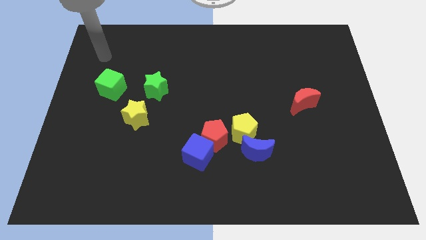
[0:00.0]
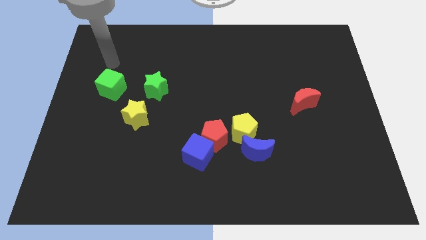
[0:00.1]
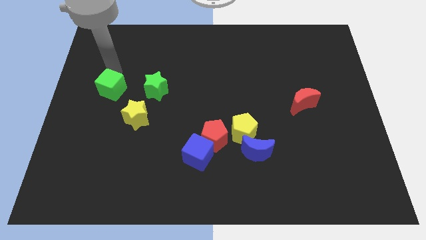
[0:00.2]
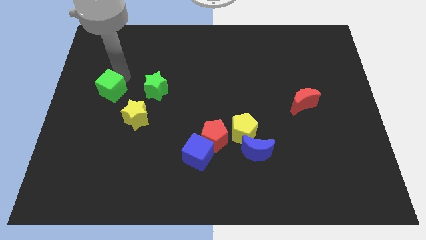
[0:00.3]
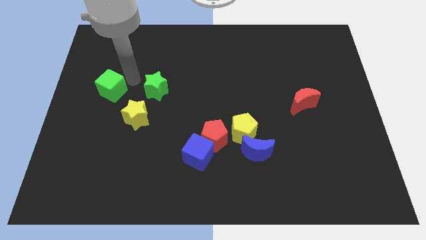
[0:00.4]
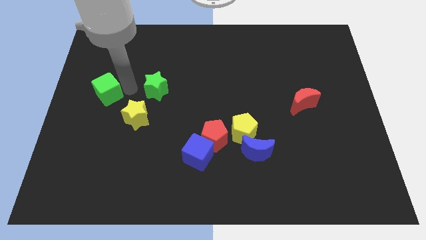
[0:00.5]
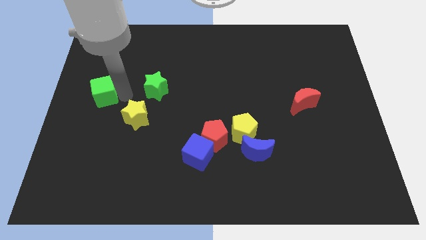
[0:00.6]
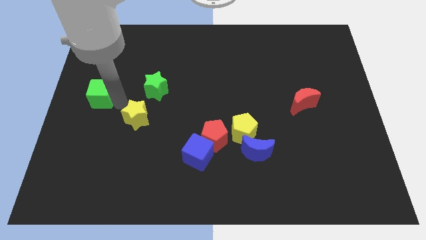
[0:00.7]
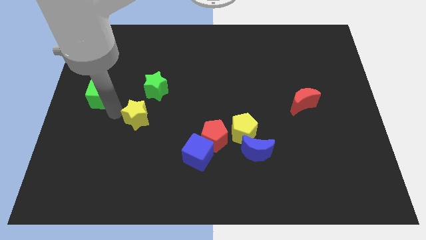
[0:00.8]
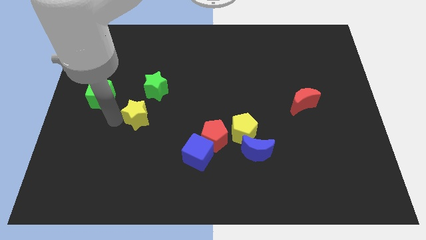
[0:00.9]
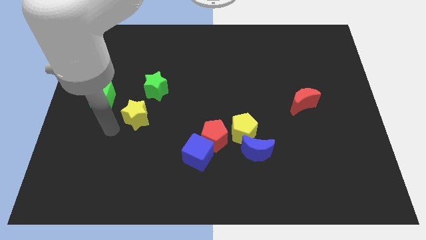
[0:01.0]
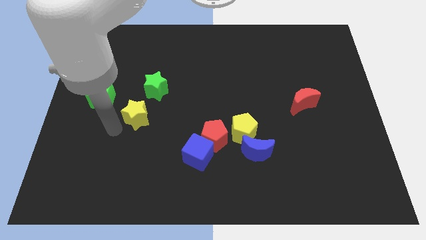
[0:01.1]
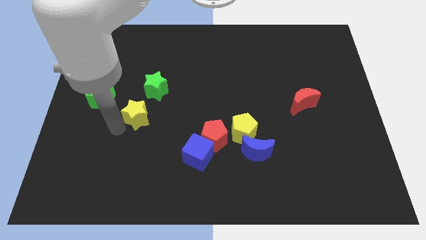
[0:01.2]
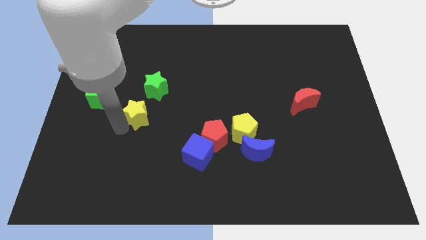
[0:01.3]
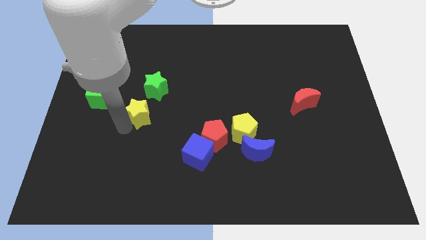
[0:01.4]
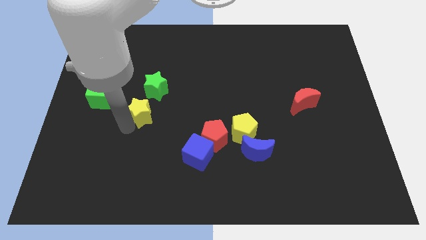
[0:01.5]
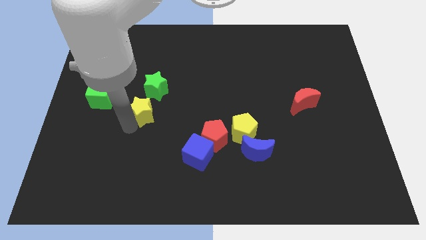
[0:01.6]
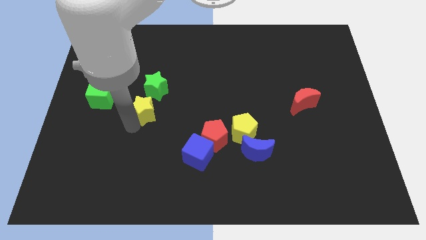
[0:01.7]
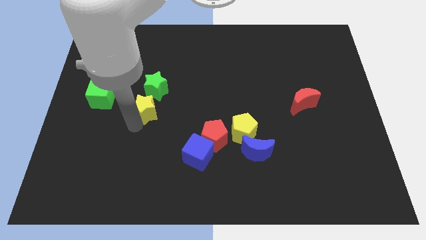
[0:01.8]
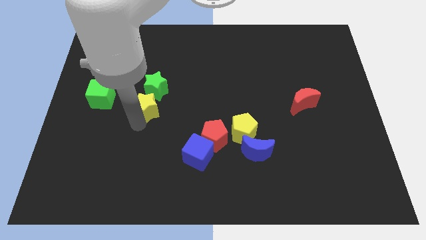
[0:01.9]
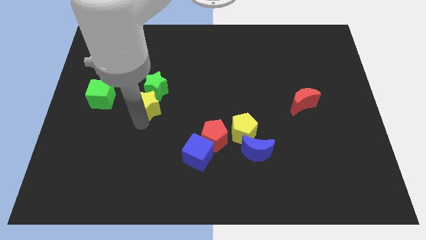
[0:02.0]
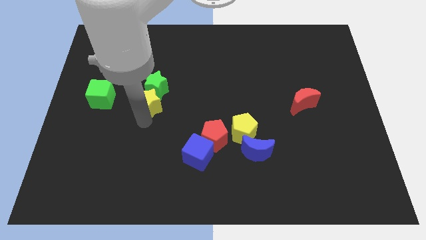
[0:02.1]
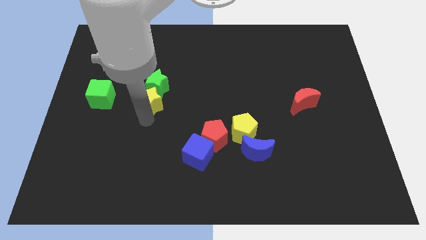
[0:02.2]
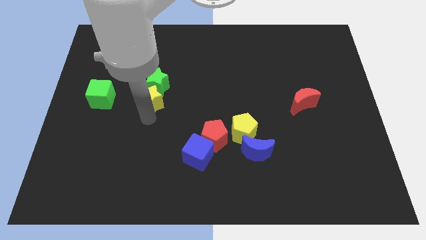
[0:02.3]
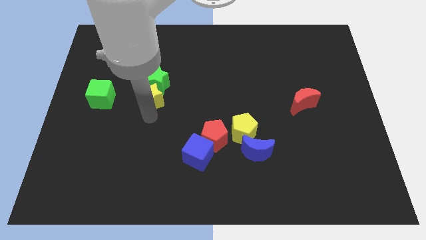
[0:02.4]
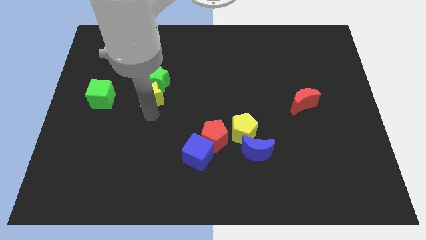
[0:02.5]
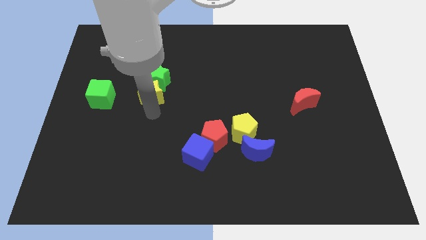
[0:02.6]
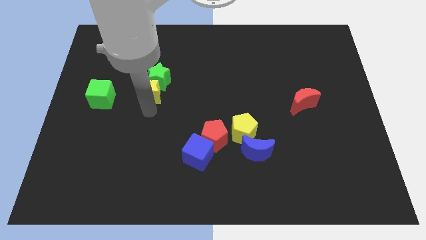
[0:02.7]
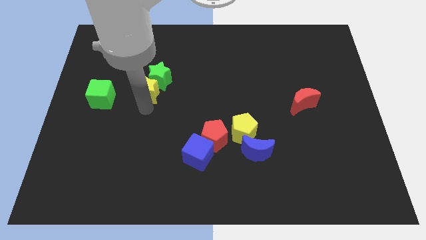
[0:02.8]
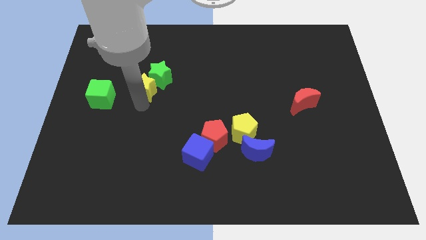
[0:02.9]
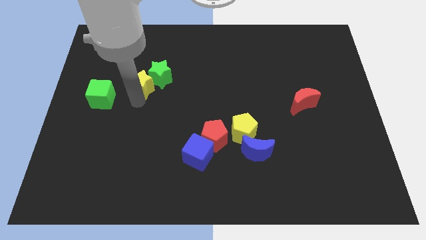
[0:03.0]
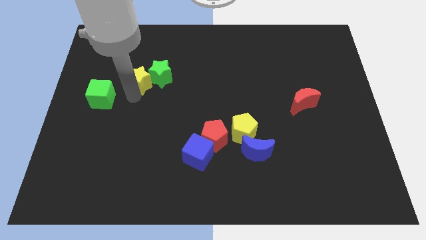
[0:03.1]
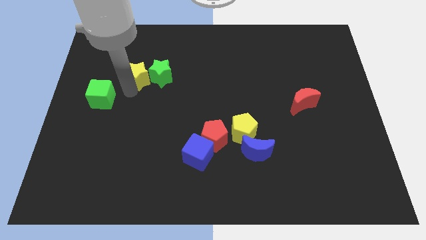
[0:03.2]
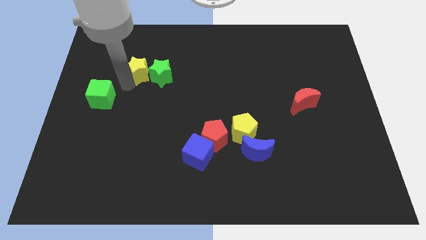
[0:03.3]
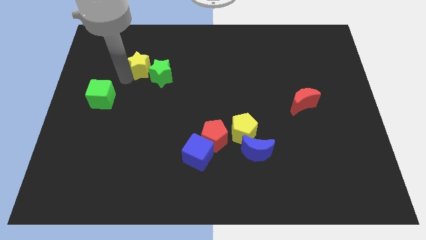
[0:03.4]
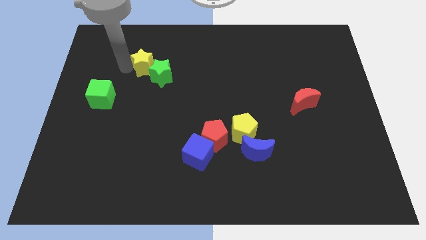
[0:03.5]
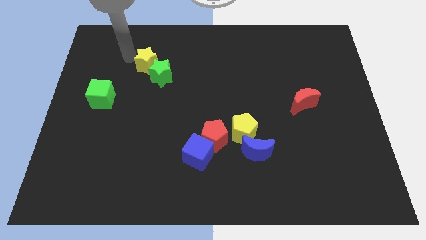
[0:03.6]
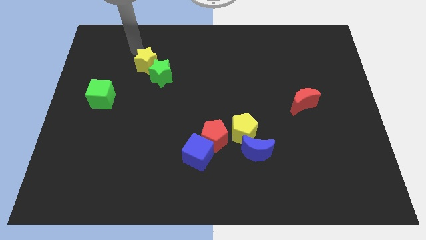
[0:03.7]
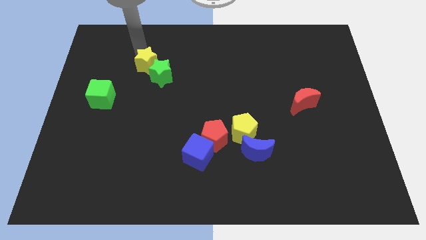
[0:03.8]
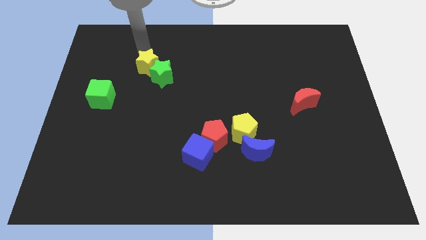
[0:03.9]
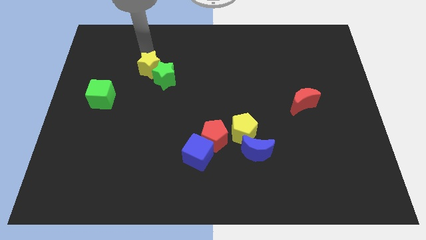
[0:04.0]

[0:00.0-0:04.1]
slightly push the yellow star up and right

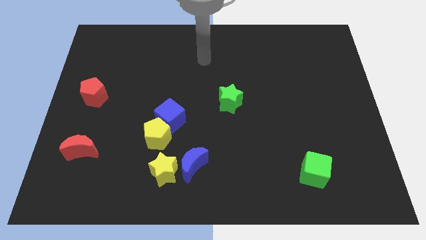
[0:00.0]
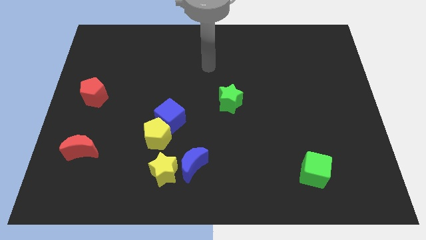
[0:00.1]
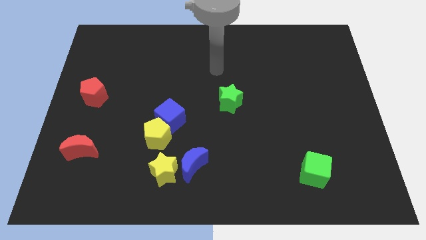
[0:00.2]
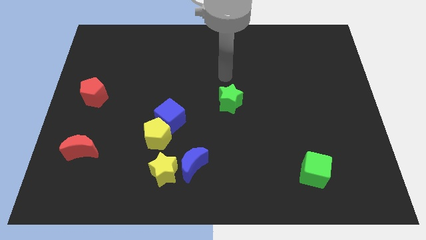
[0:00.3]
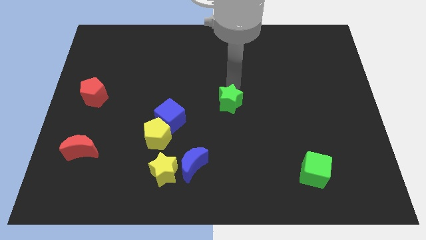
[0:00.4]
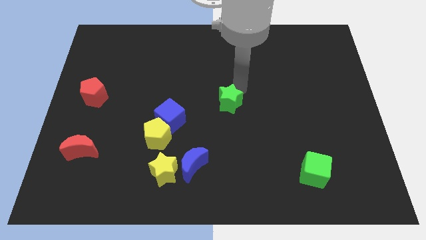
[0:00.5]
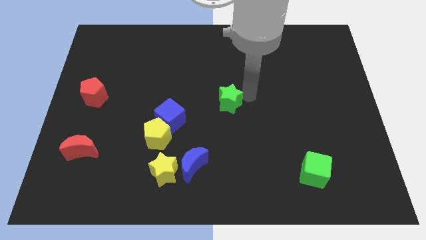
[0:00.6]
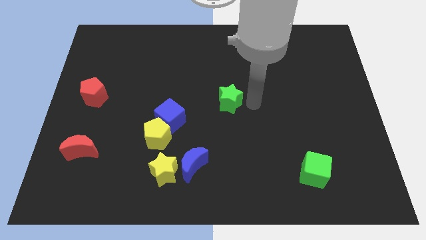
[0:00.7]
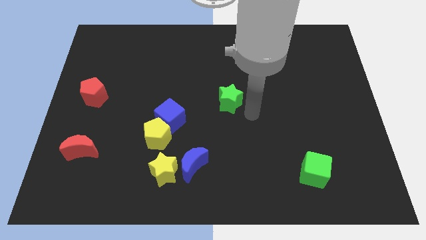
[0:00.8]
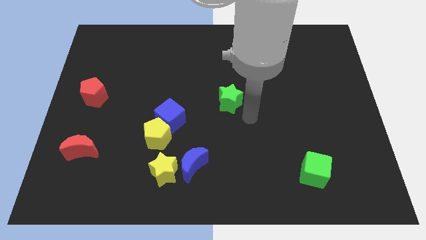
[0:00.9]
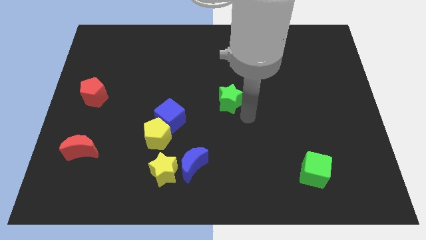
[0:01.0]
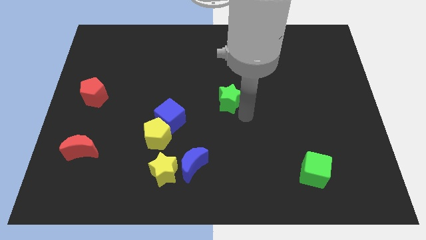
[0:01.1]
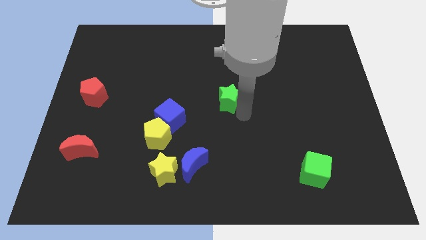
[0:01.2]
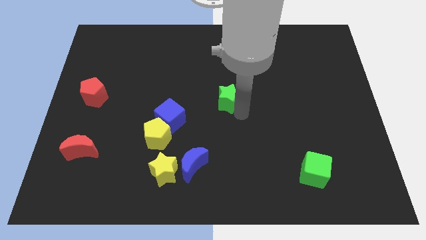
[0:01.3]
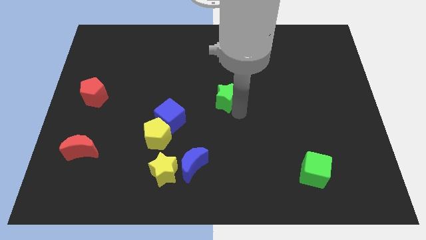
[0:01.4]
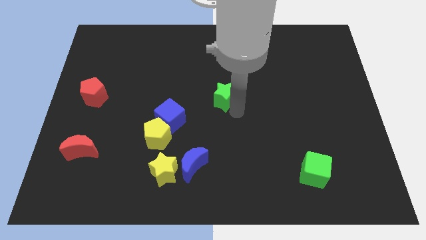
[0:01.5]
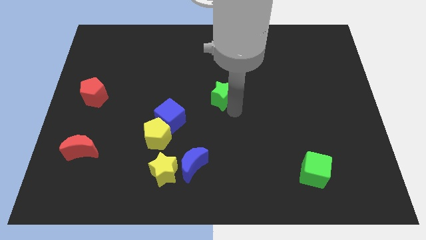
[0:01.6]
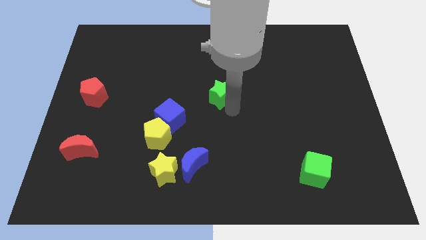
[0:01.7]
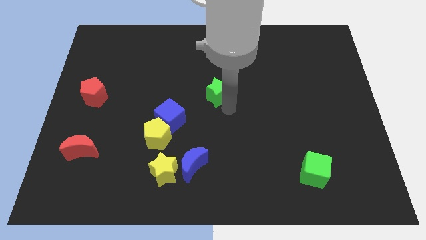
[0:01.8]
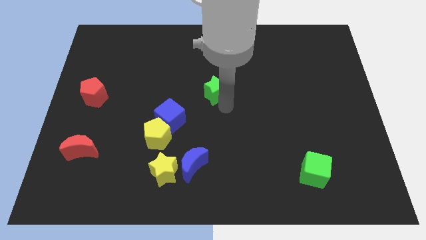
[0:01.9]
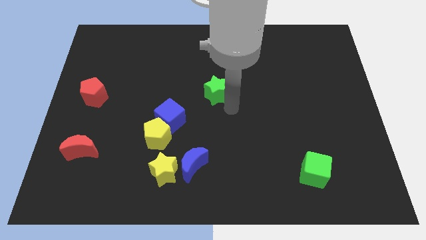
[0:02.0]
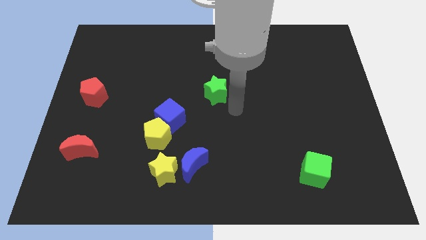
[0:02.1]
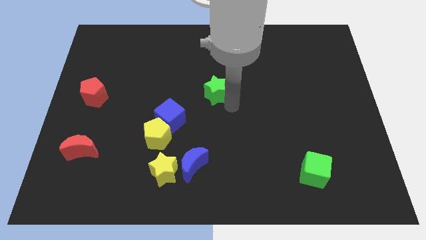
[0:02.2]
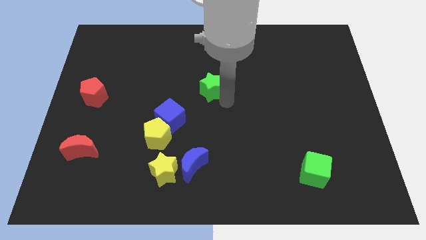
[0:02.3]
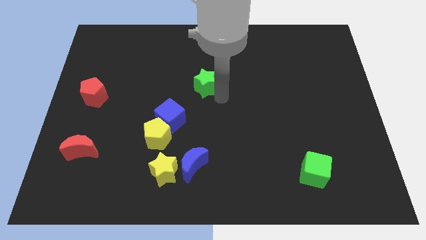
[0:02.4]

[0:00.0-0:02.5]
slide the green star diagonally up and to the left somewhat

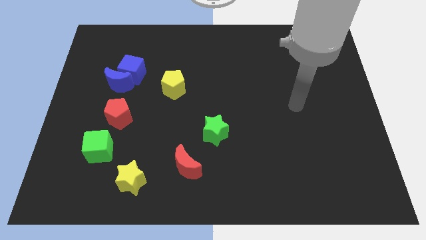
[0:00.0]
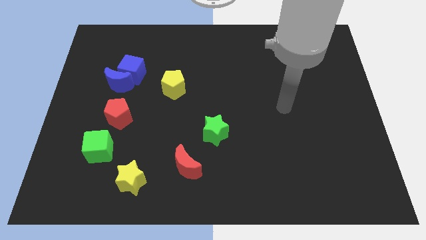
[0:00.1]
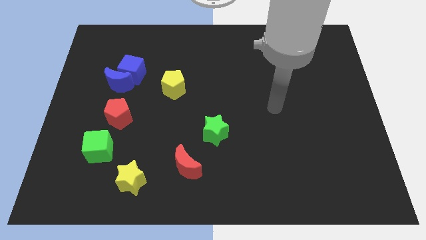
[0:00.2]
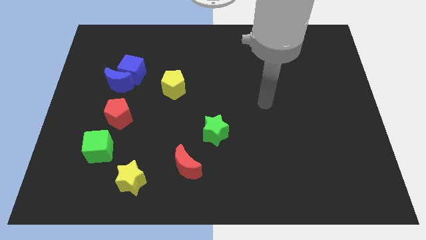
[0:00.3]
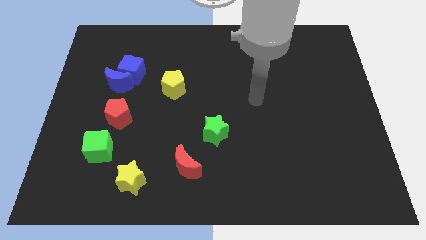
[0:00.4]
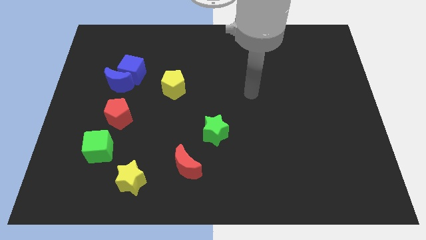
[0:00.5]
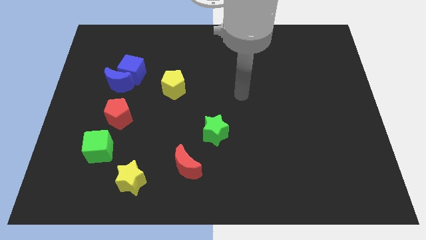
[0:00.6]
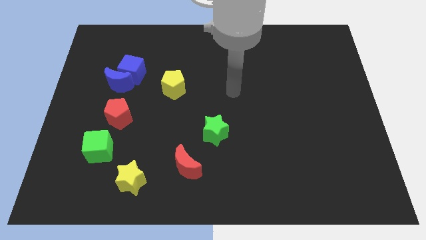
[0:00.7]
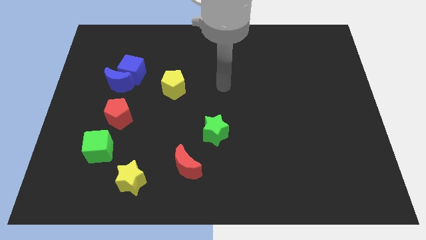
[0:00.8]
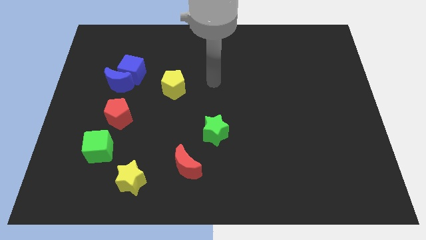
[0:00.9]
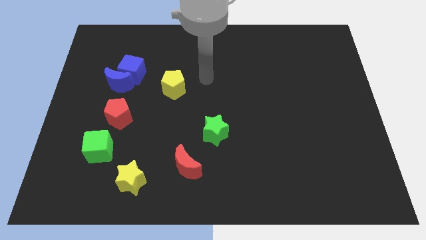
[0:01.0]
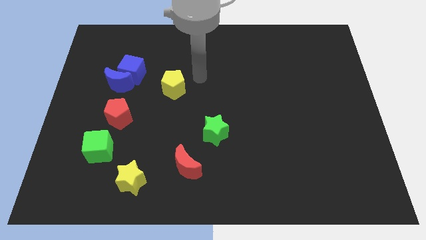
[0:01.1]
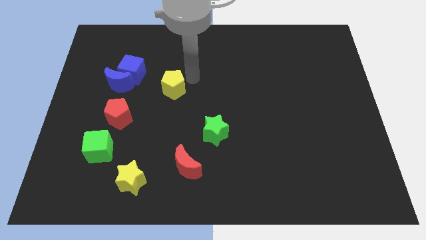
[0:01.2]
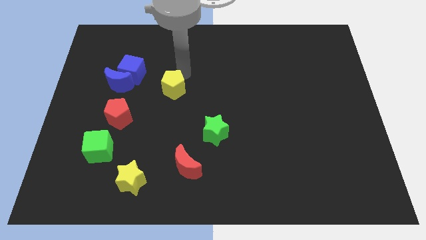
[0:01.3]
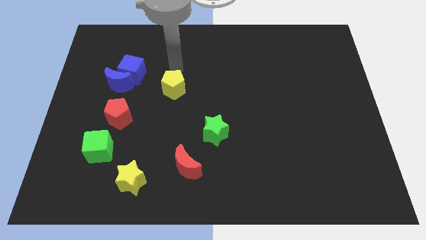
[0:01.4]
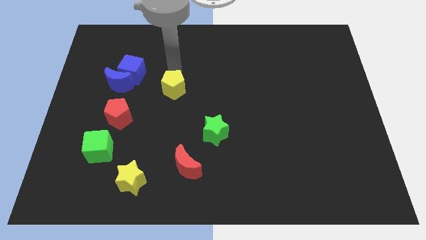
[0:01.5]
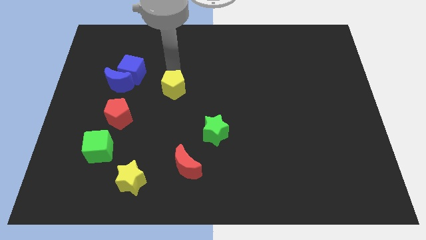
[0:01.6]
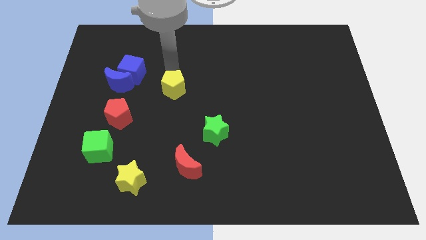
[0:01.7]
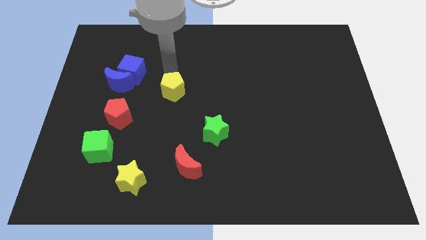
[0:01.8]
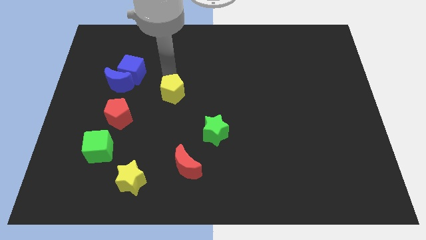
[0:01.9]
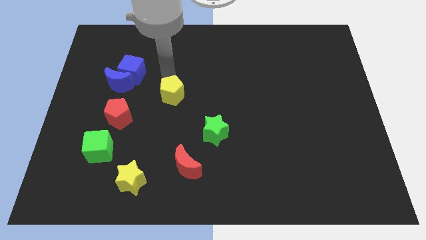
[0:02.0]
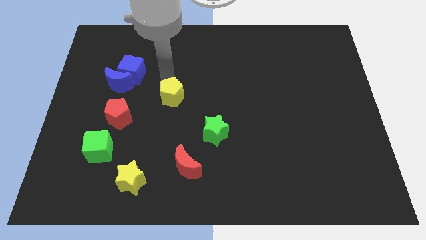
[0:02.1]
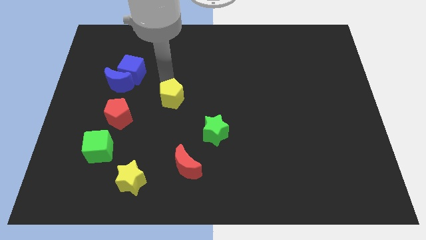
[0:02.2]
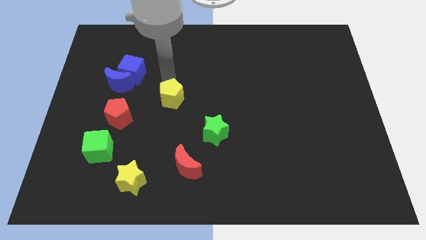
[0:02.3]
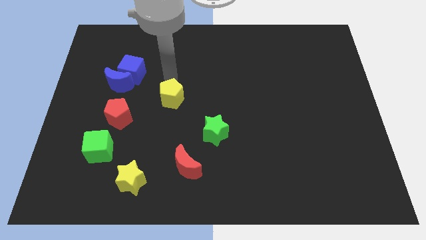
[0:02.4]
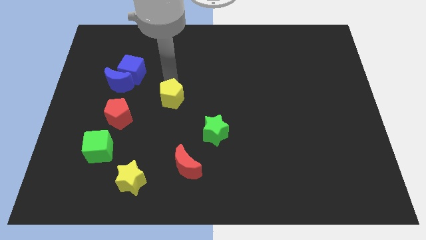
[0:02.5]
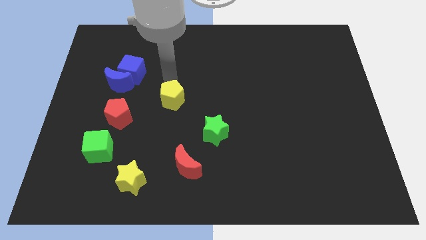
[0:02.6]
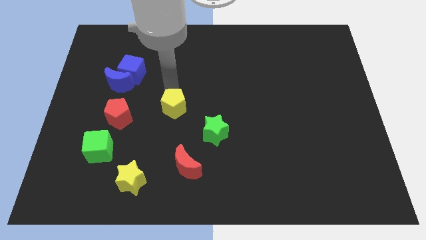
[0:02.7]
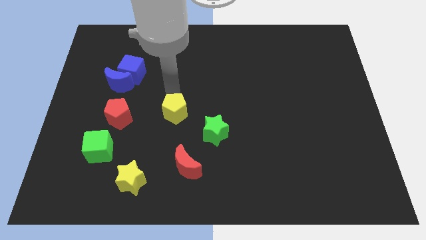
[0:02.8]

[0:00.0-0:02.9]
push the yellow pentagon downwards somewhat
